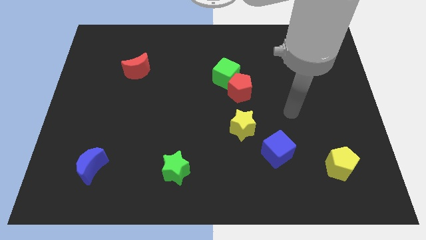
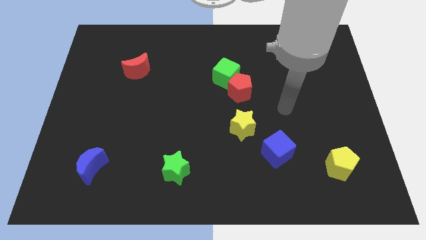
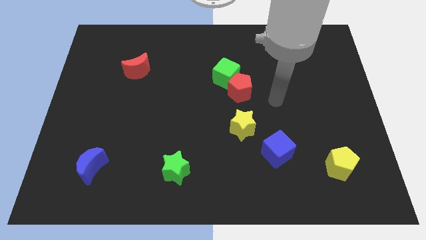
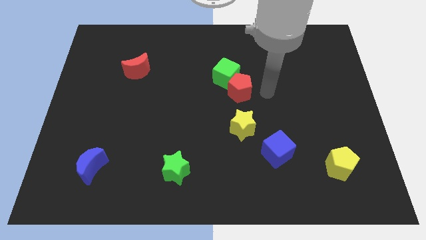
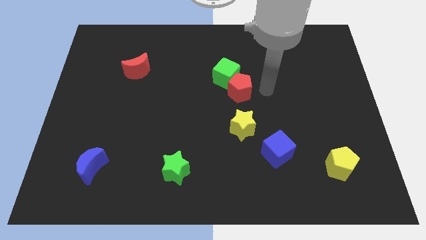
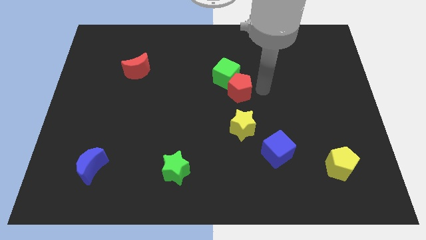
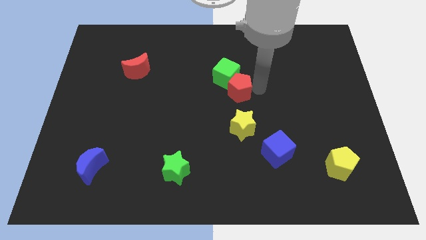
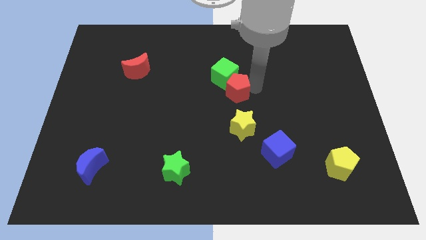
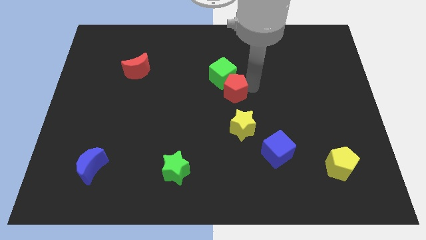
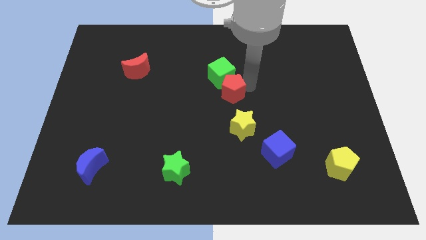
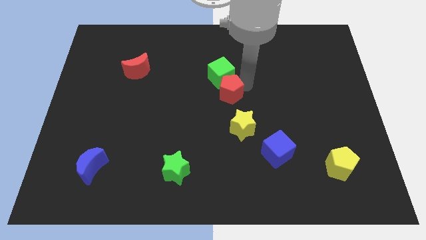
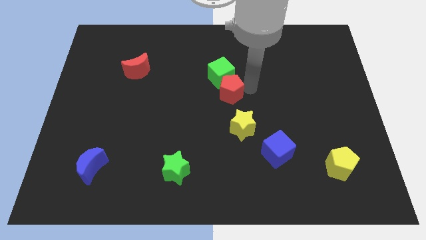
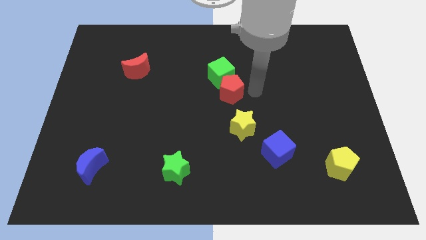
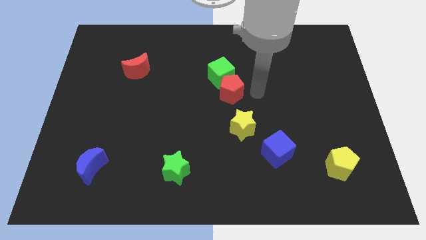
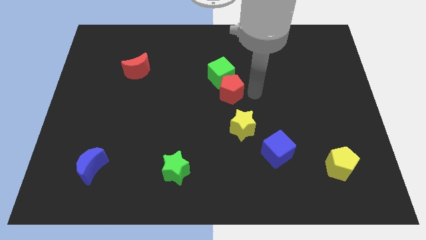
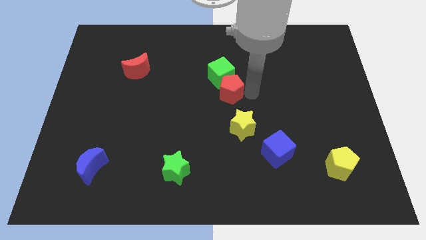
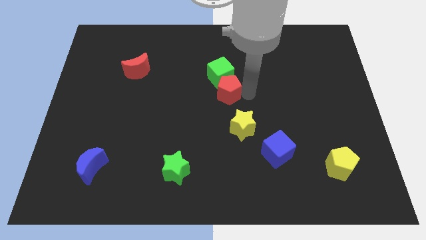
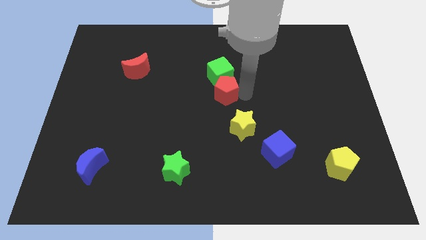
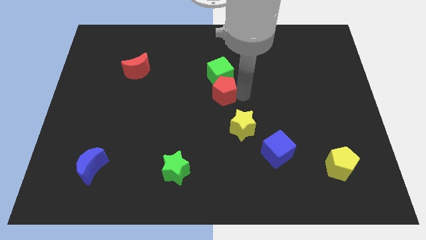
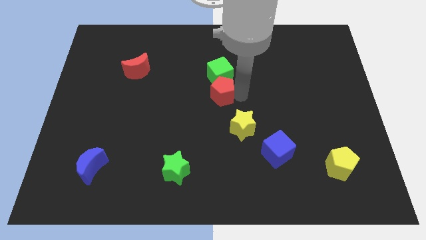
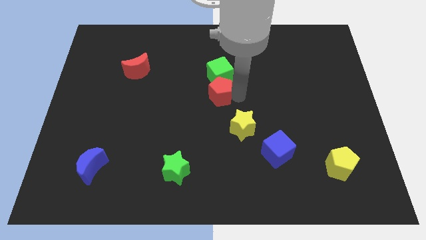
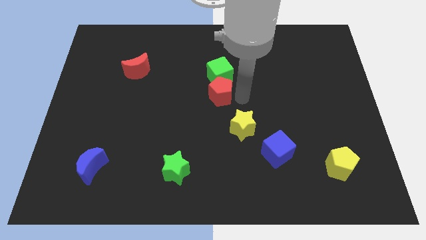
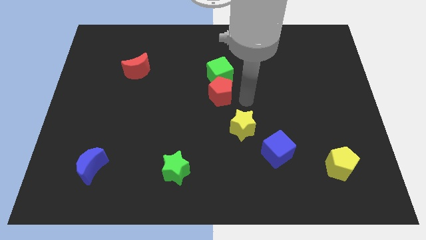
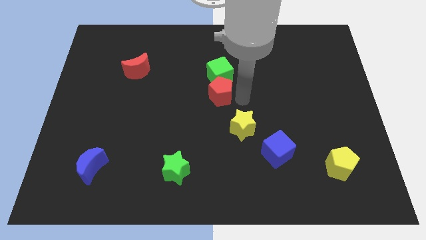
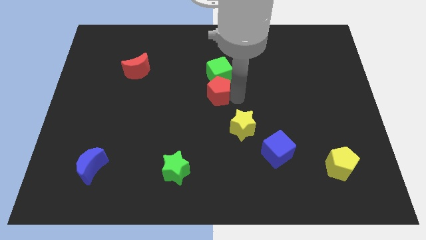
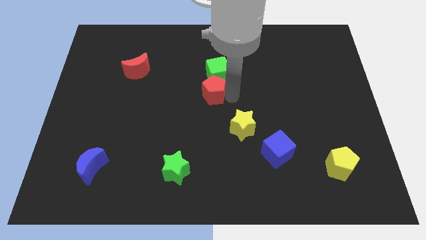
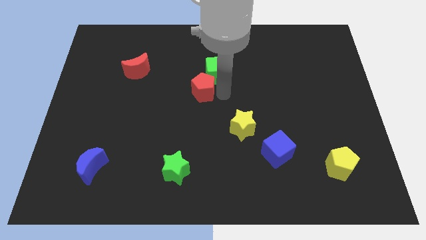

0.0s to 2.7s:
push the red pentagon somewhat left

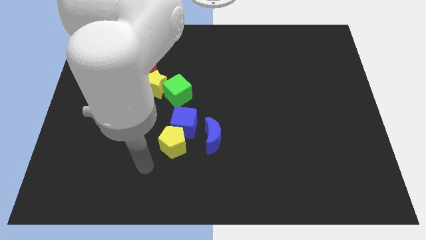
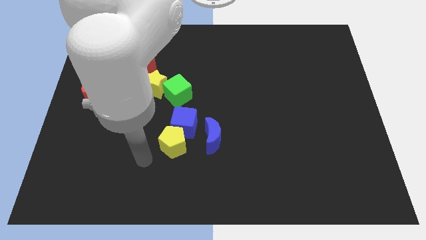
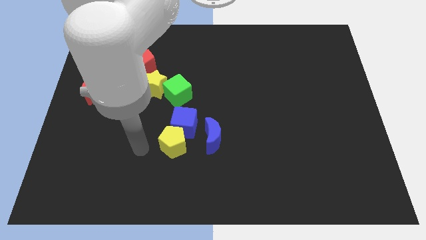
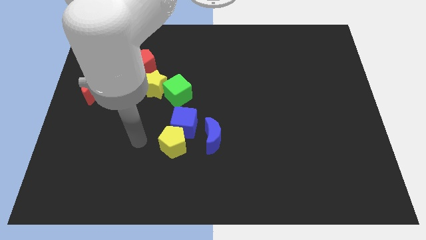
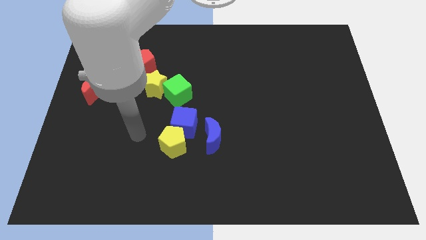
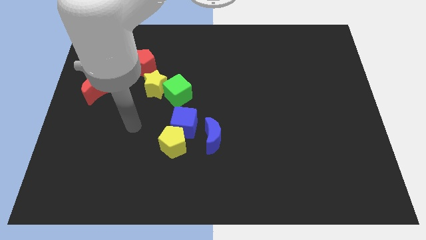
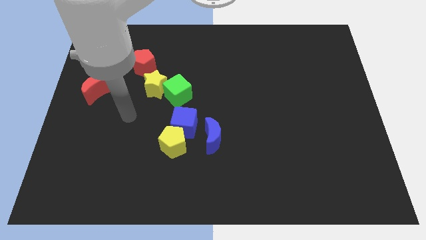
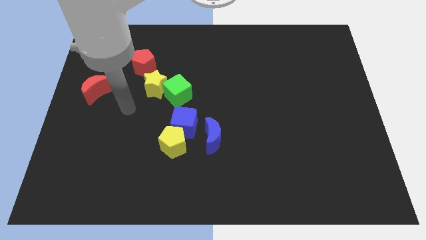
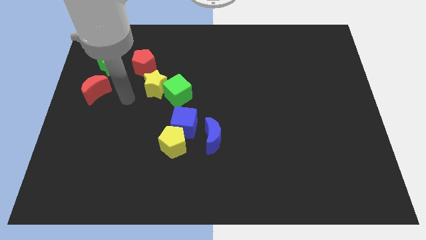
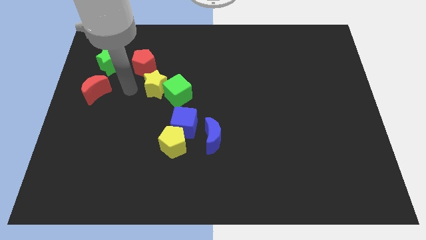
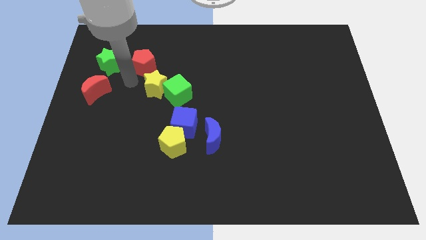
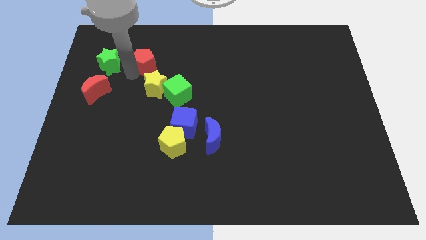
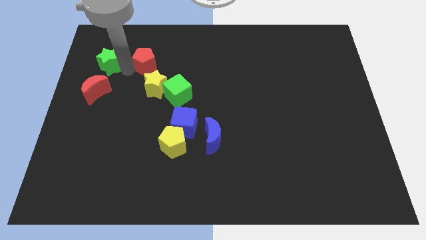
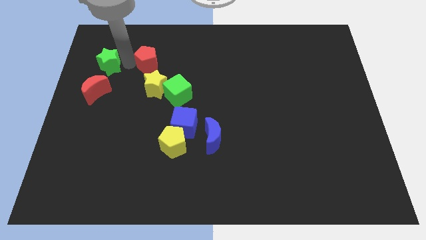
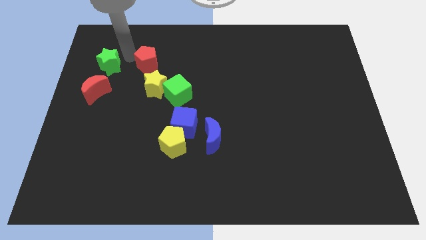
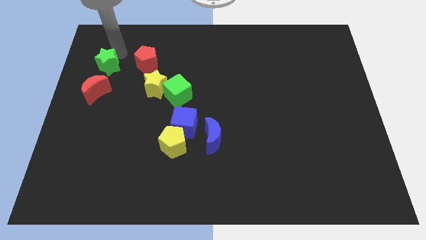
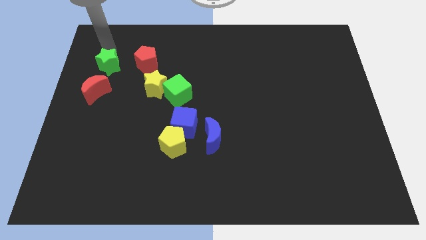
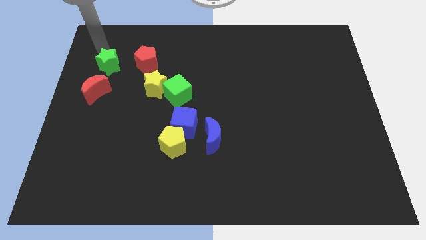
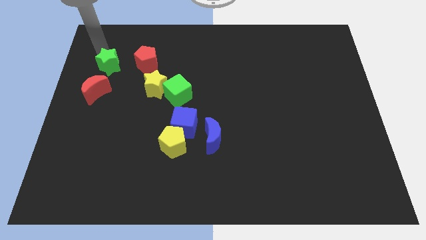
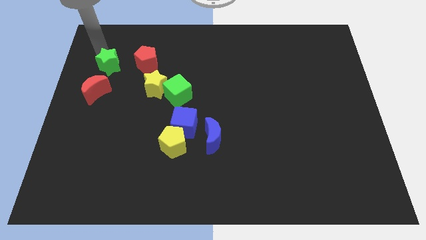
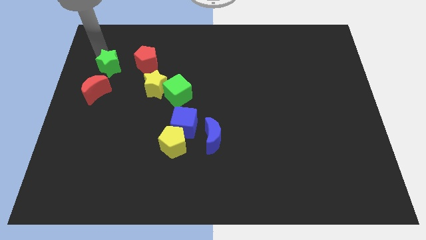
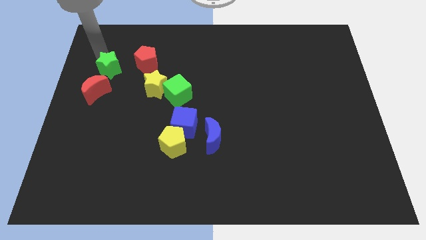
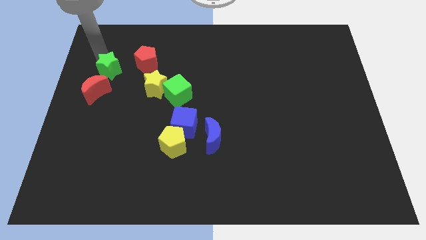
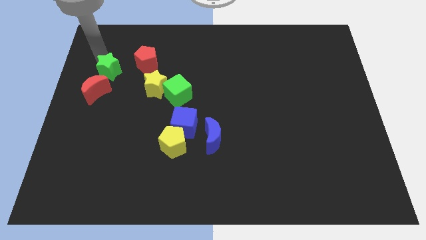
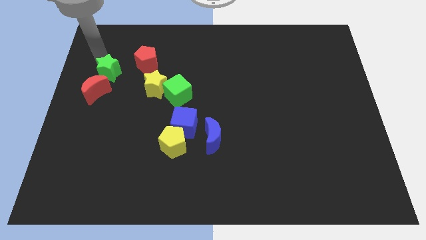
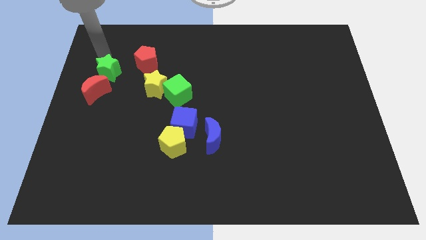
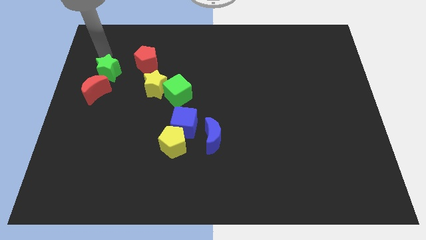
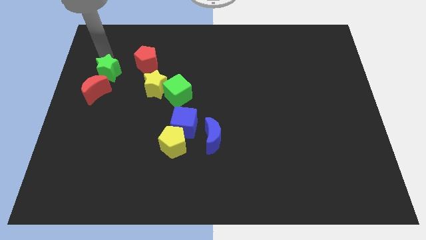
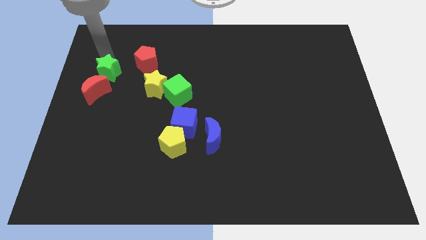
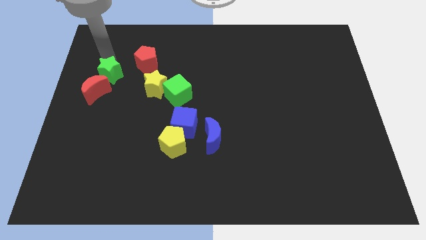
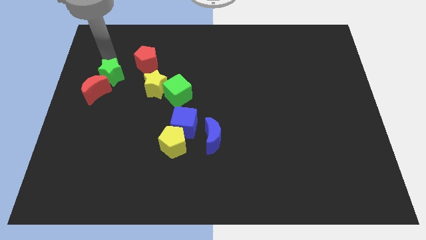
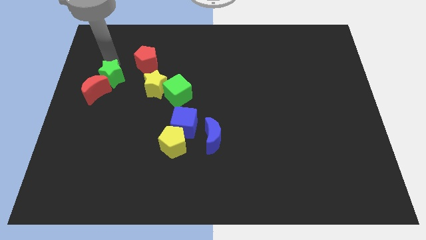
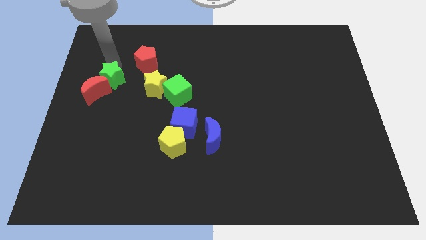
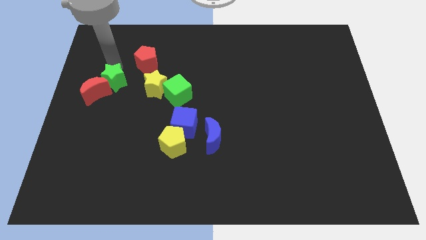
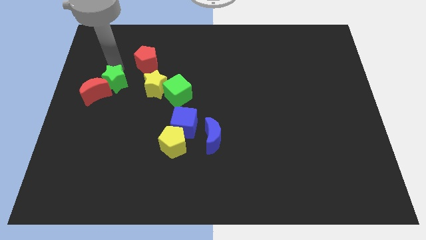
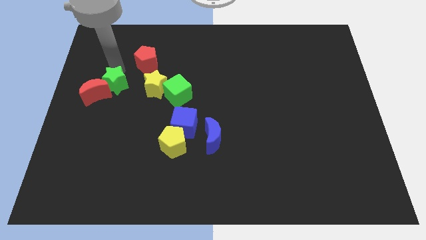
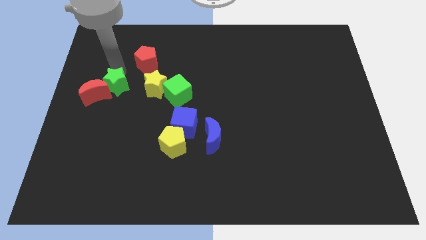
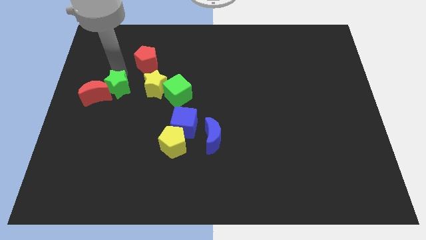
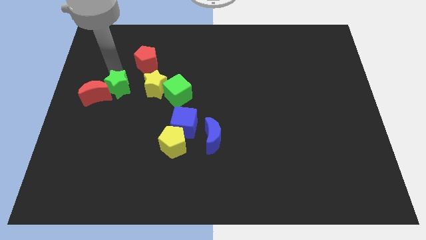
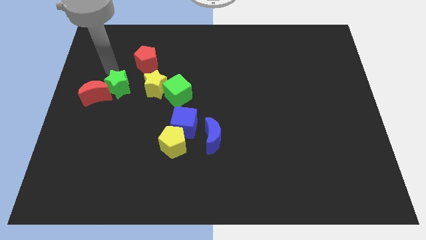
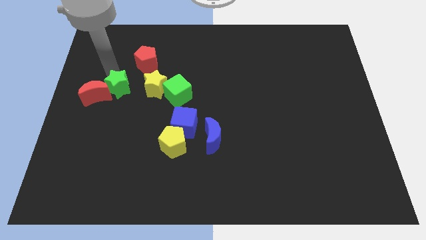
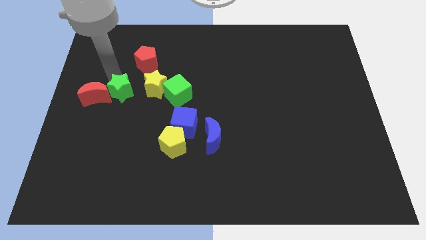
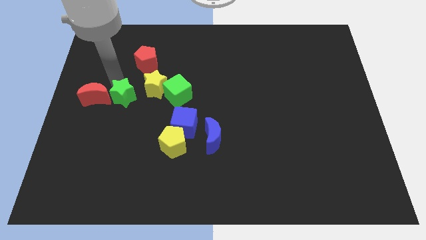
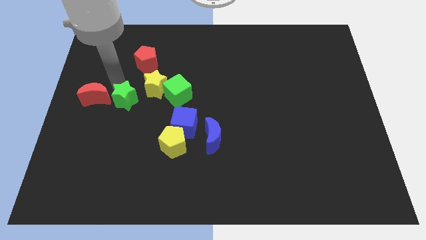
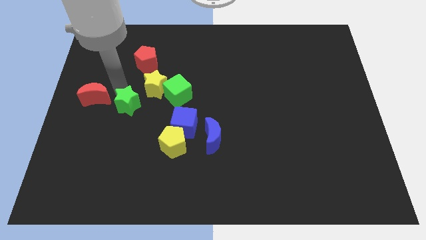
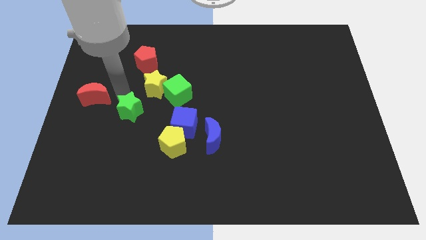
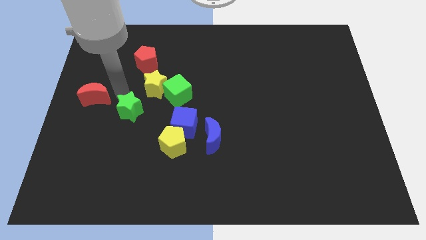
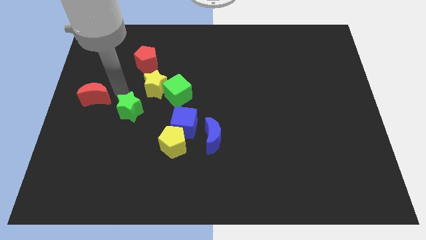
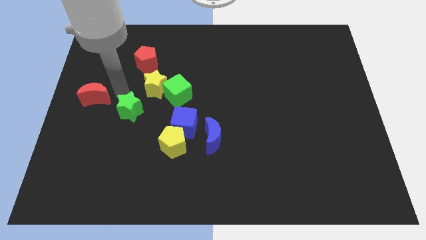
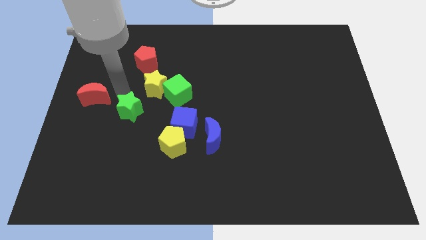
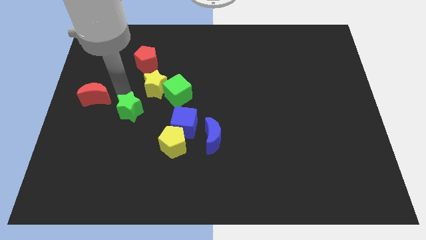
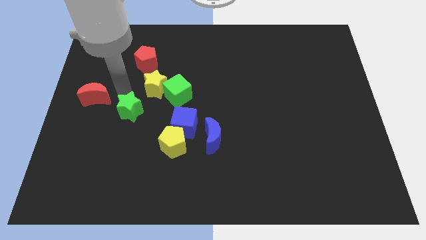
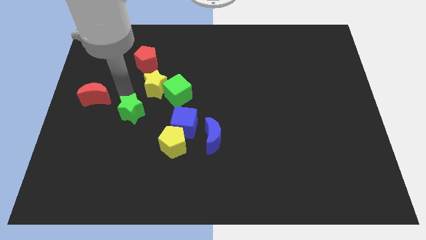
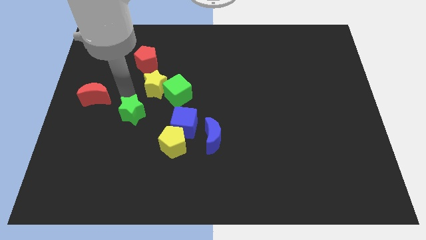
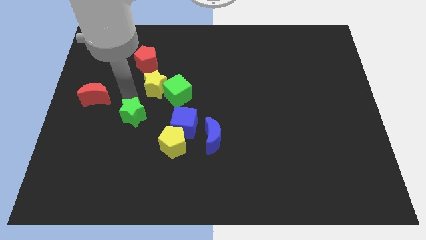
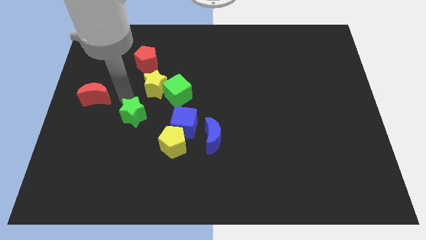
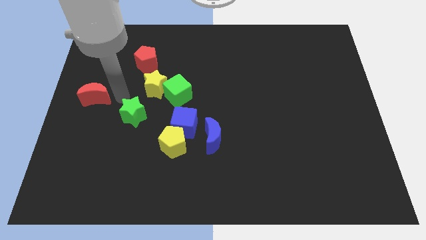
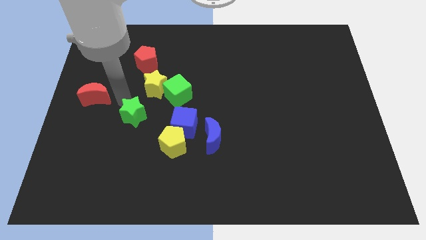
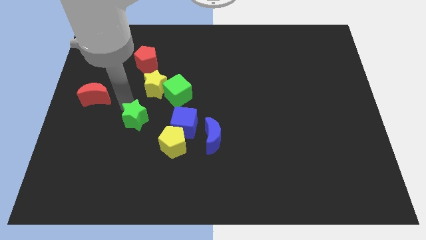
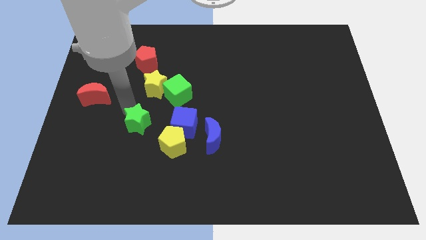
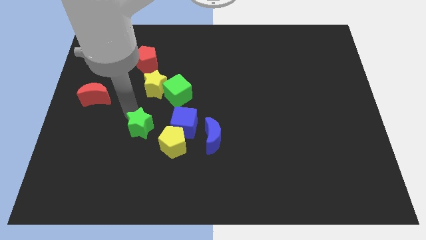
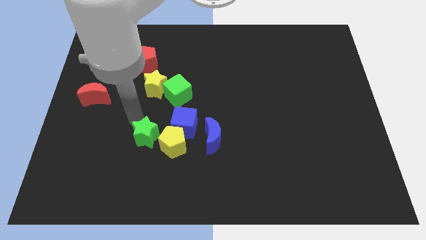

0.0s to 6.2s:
move the green star downwards and then to the right
